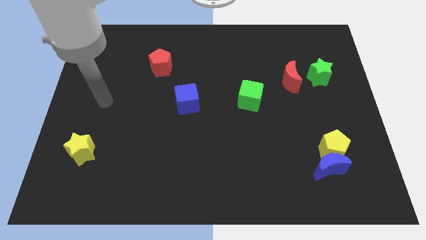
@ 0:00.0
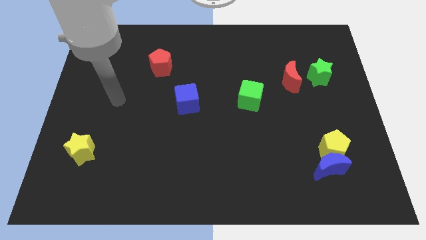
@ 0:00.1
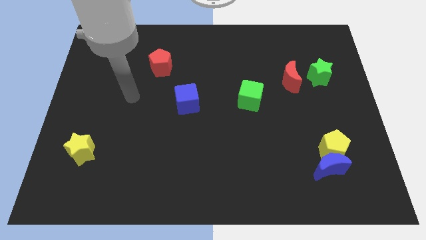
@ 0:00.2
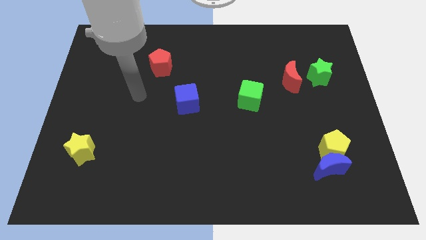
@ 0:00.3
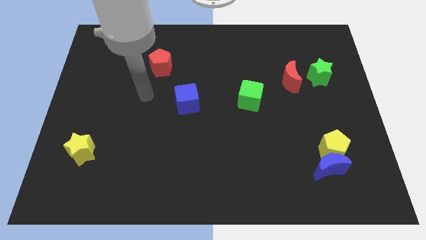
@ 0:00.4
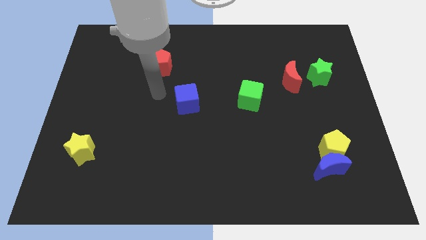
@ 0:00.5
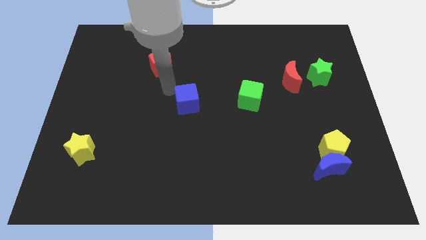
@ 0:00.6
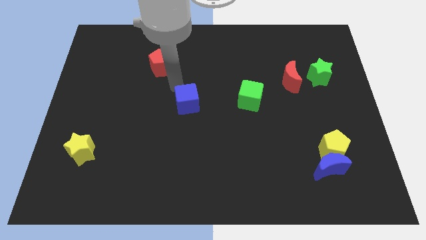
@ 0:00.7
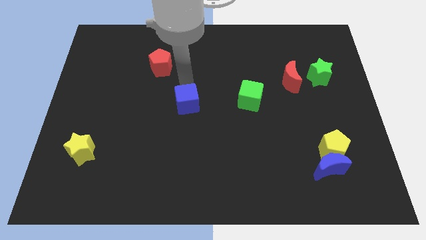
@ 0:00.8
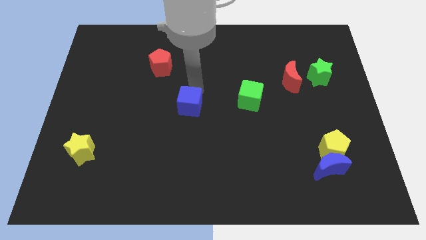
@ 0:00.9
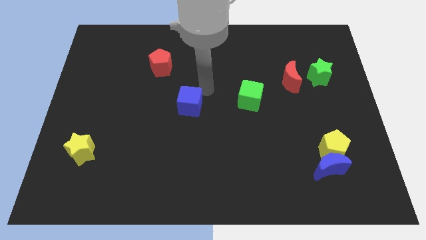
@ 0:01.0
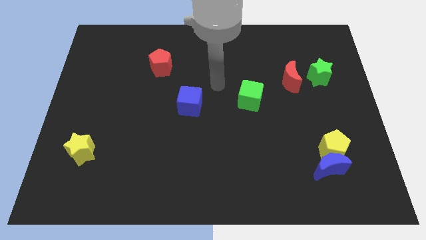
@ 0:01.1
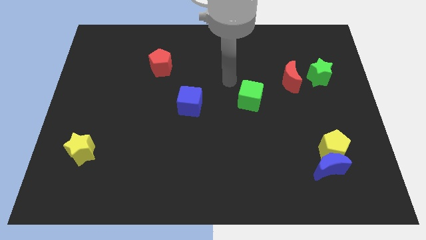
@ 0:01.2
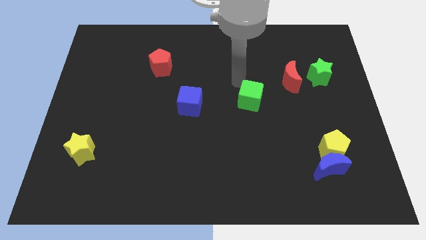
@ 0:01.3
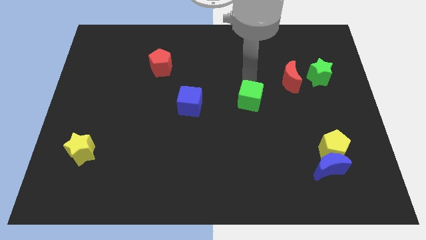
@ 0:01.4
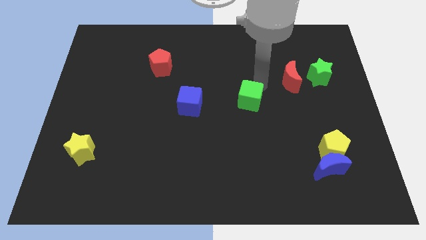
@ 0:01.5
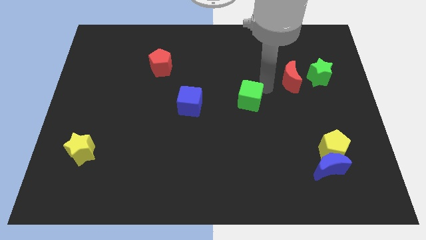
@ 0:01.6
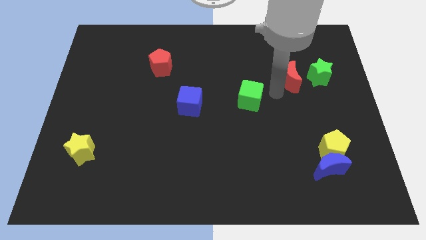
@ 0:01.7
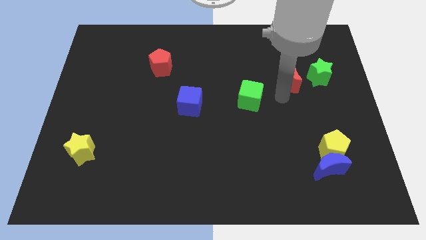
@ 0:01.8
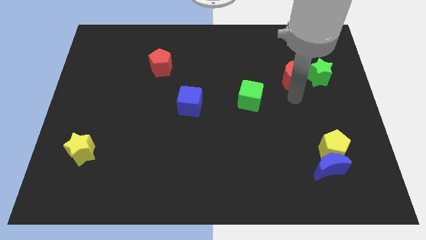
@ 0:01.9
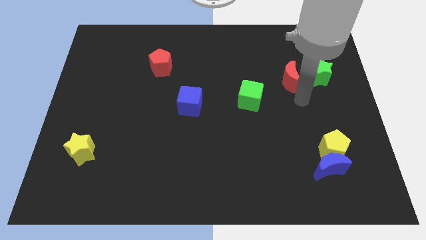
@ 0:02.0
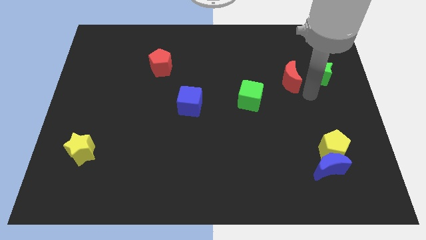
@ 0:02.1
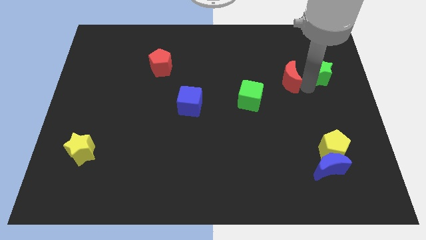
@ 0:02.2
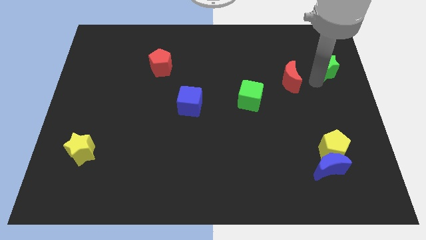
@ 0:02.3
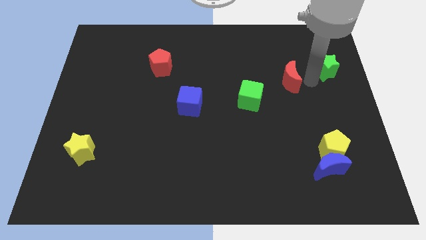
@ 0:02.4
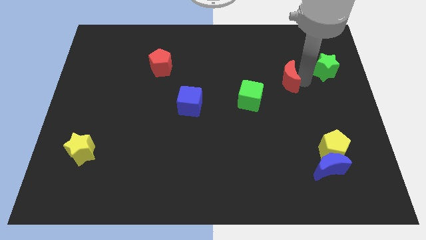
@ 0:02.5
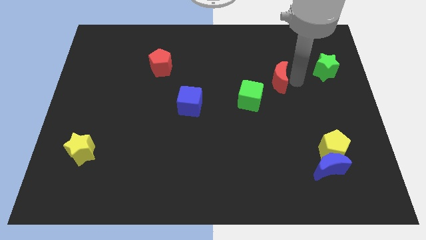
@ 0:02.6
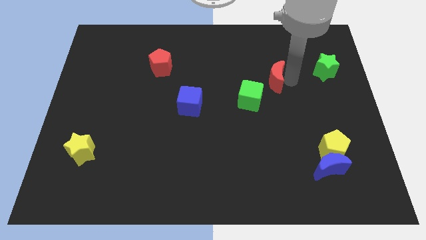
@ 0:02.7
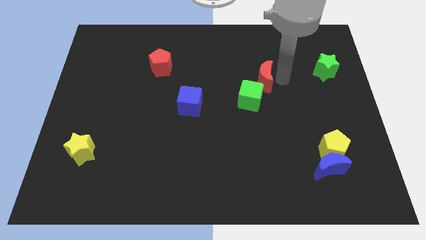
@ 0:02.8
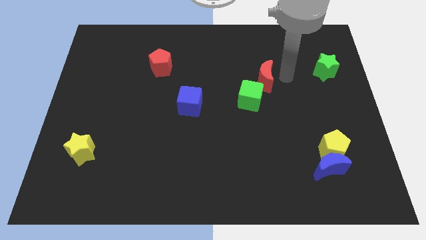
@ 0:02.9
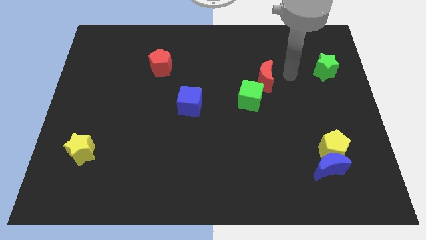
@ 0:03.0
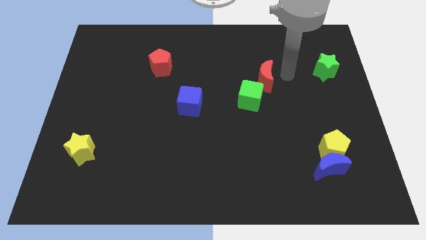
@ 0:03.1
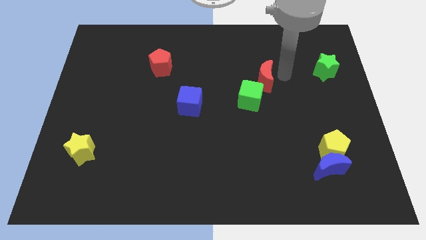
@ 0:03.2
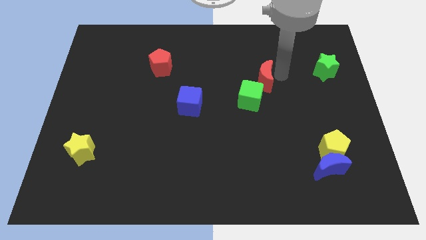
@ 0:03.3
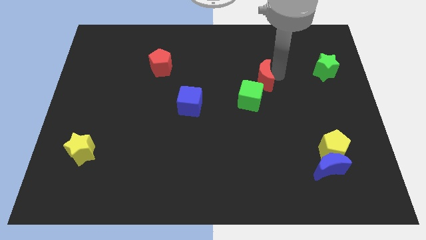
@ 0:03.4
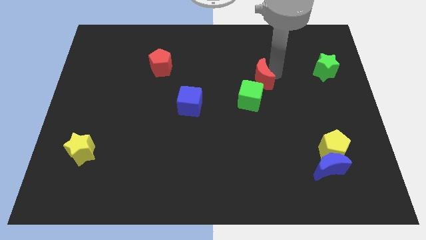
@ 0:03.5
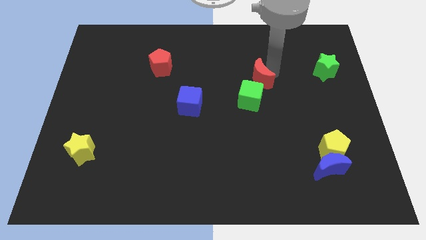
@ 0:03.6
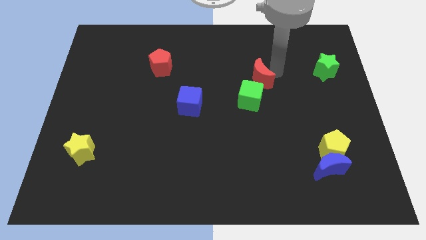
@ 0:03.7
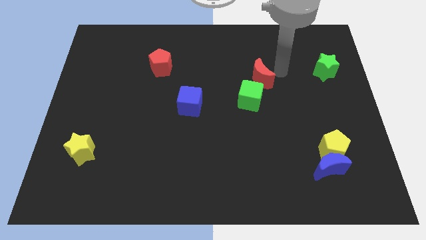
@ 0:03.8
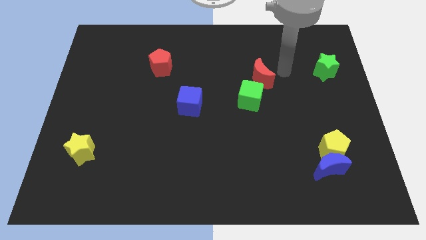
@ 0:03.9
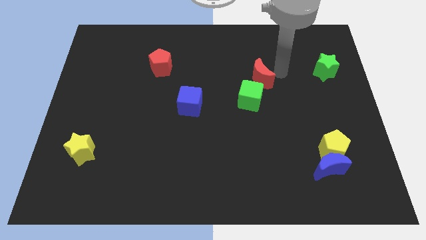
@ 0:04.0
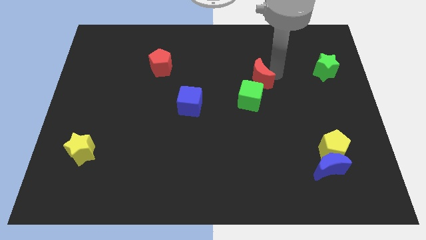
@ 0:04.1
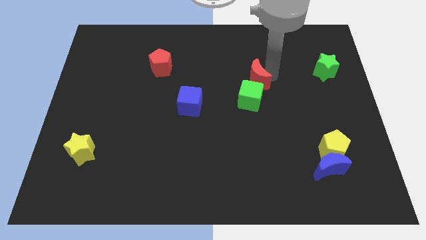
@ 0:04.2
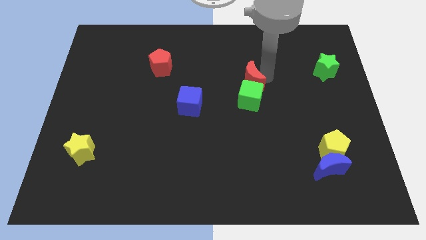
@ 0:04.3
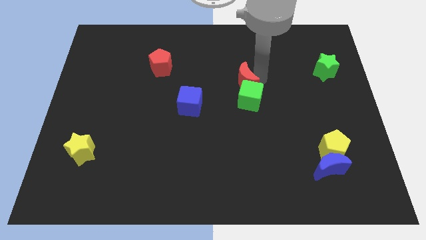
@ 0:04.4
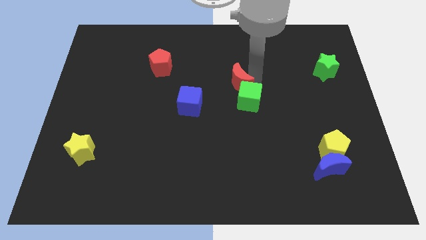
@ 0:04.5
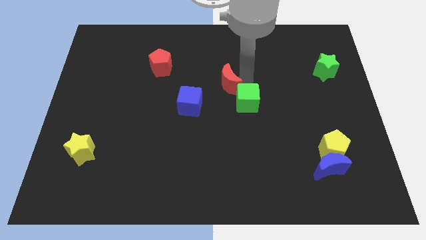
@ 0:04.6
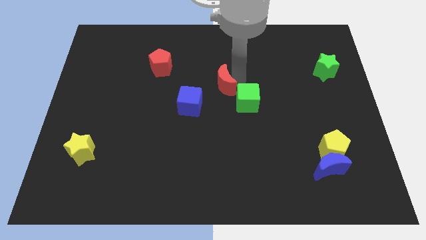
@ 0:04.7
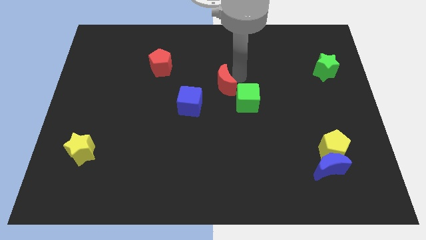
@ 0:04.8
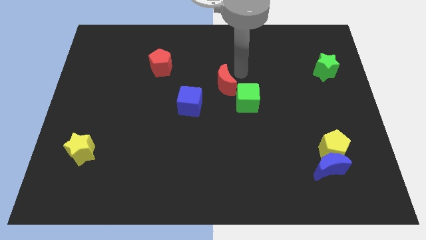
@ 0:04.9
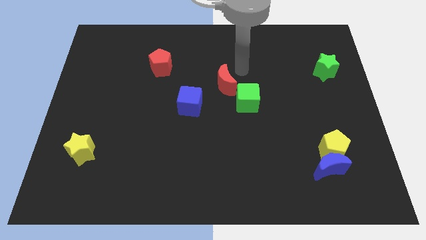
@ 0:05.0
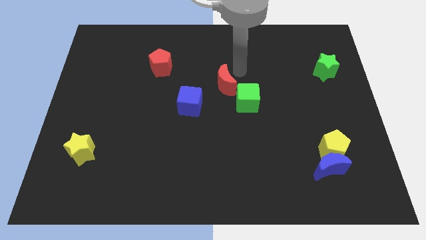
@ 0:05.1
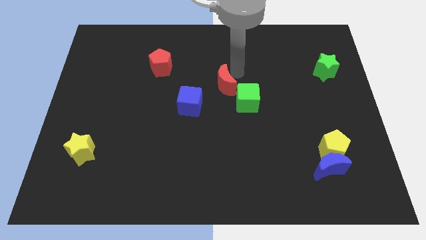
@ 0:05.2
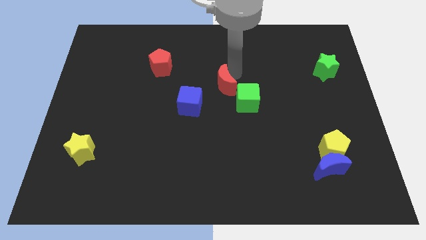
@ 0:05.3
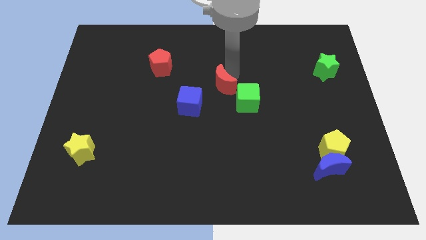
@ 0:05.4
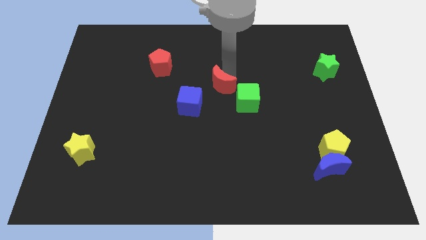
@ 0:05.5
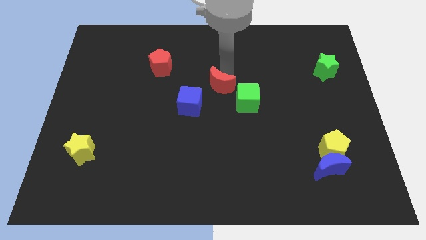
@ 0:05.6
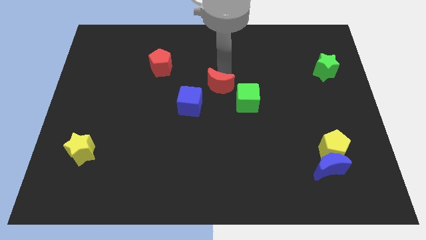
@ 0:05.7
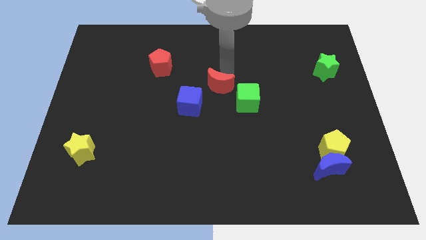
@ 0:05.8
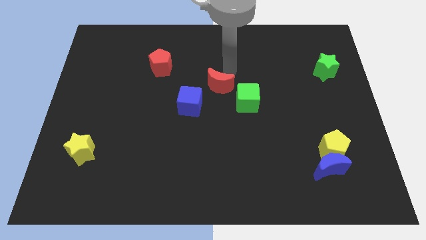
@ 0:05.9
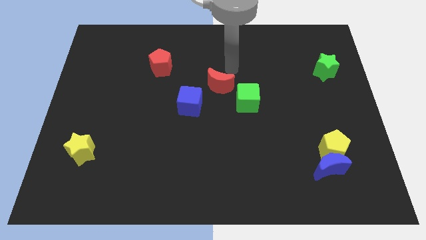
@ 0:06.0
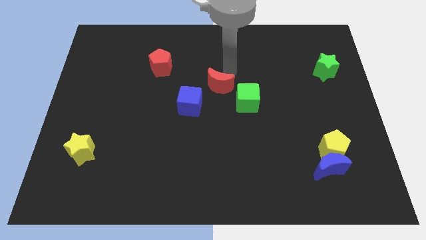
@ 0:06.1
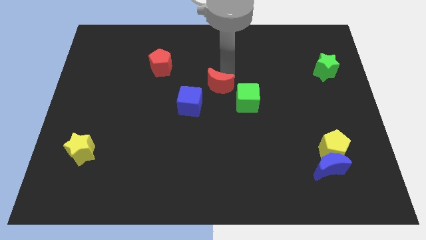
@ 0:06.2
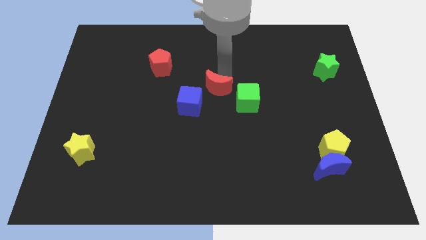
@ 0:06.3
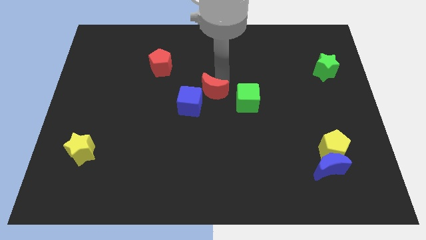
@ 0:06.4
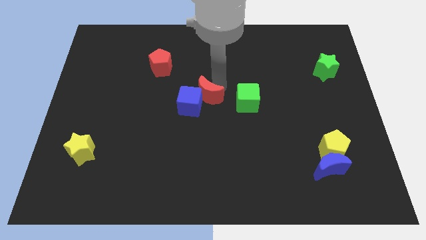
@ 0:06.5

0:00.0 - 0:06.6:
slide the red moon close to the blue cube

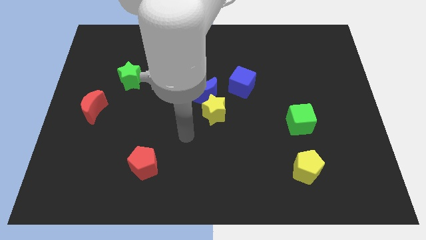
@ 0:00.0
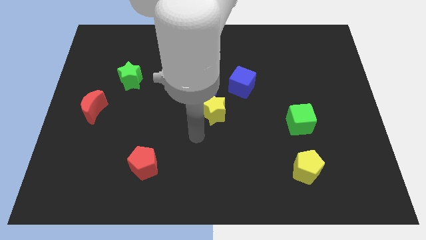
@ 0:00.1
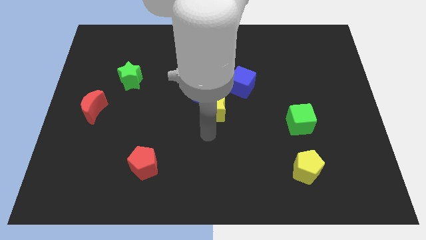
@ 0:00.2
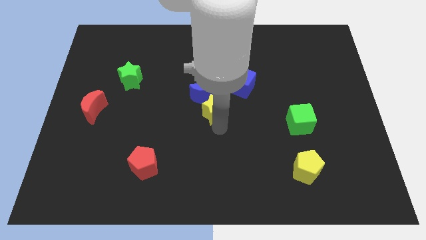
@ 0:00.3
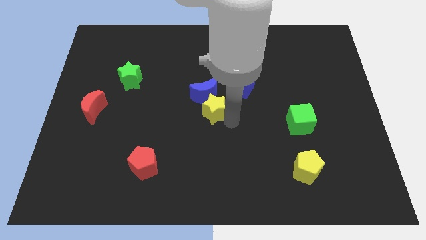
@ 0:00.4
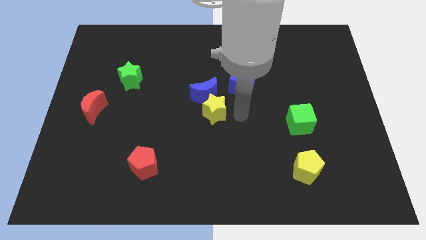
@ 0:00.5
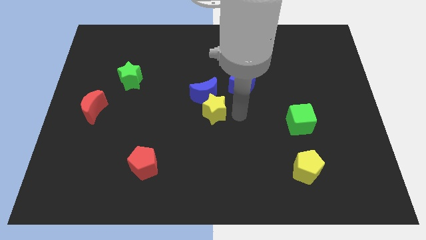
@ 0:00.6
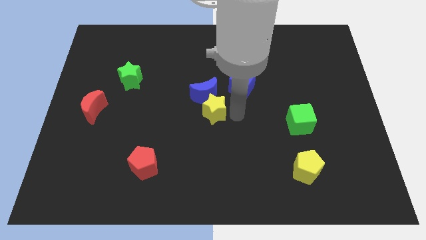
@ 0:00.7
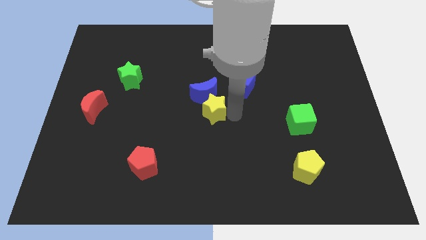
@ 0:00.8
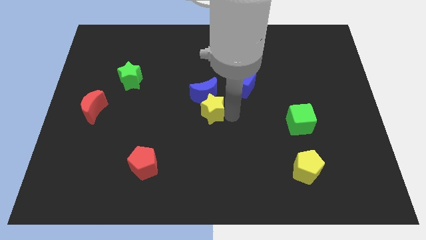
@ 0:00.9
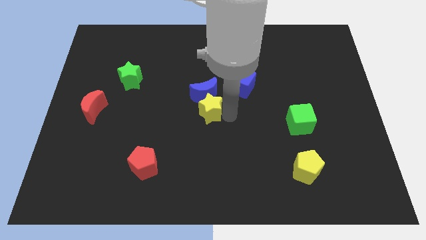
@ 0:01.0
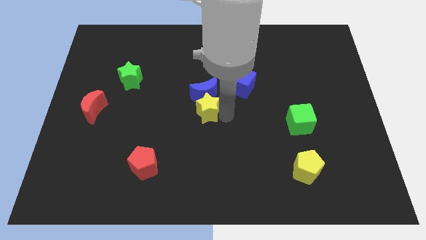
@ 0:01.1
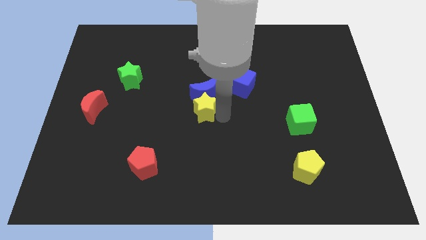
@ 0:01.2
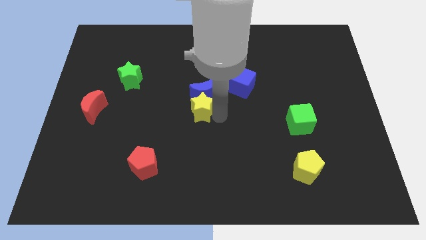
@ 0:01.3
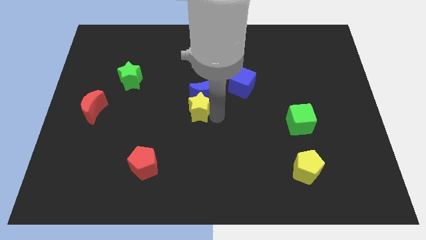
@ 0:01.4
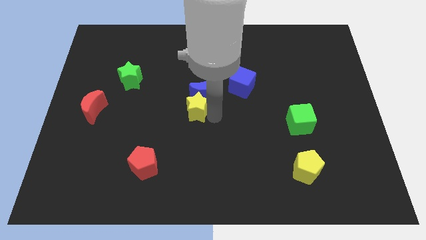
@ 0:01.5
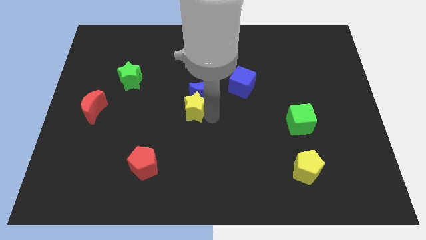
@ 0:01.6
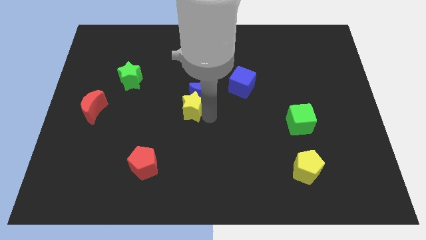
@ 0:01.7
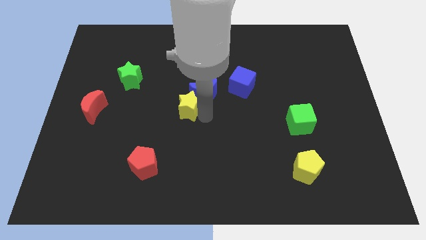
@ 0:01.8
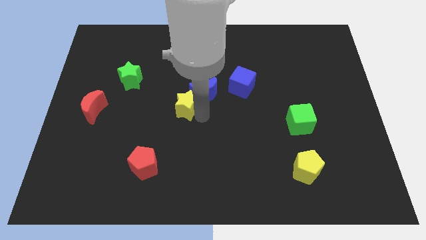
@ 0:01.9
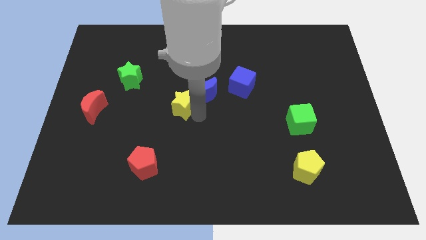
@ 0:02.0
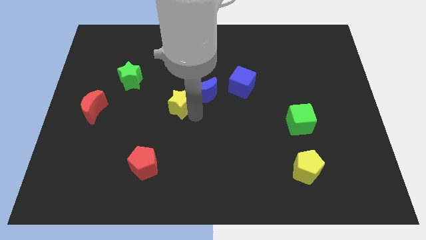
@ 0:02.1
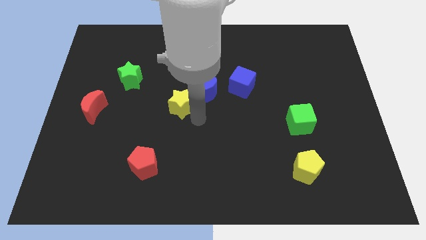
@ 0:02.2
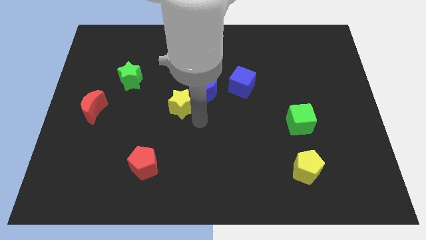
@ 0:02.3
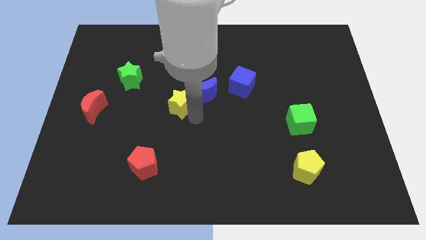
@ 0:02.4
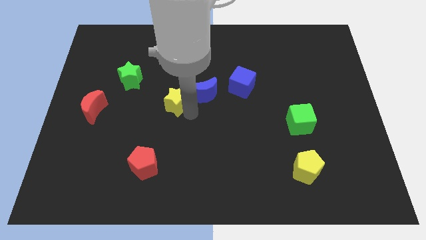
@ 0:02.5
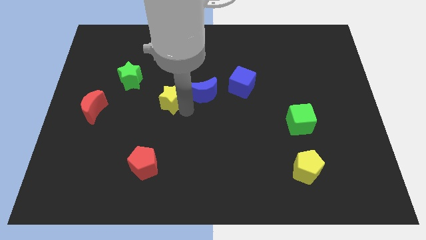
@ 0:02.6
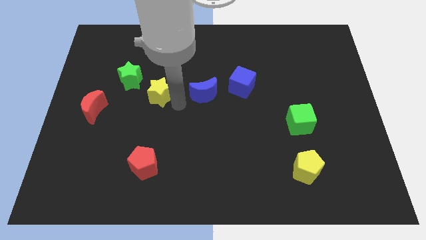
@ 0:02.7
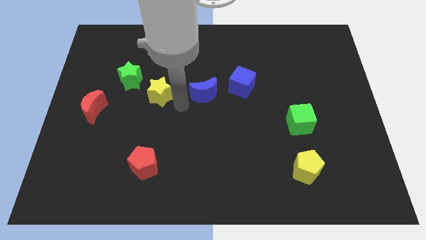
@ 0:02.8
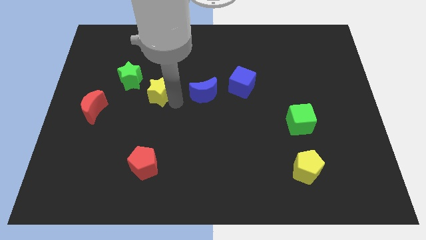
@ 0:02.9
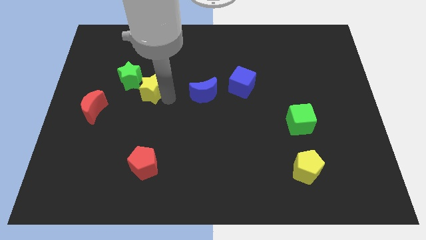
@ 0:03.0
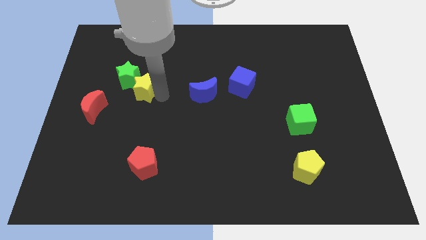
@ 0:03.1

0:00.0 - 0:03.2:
slide the yellow star to the green star
